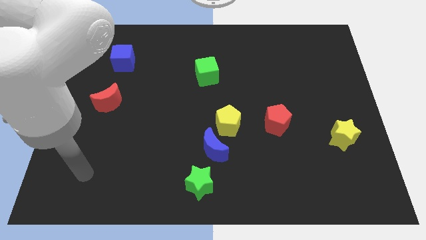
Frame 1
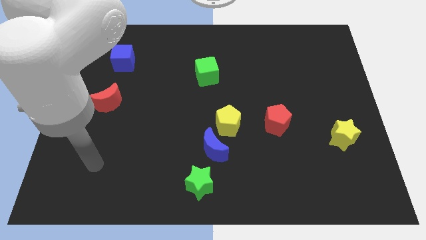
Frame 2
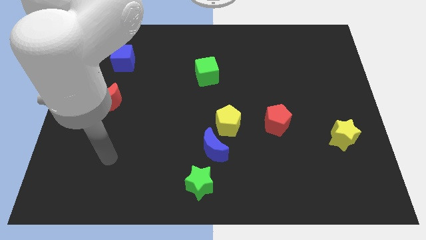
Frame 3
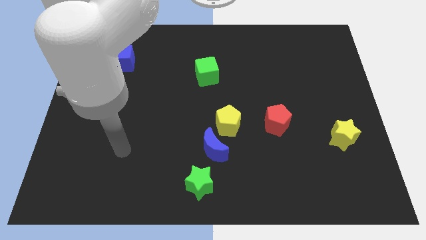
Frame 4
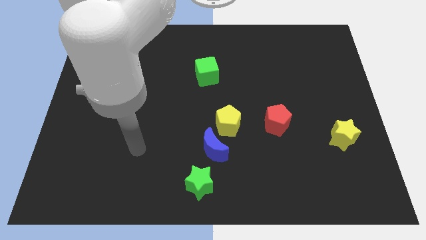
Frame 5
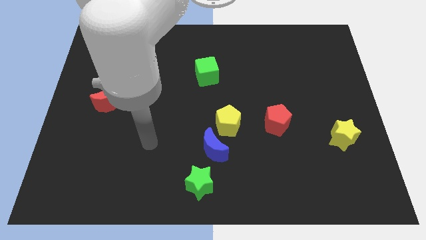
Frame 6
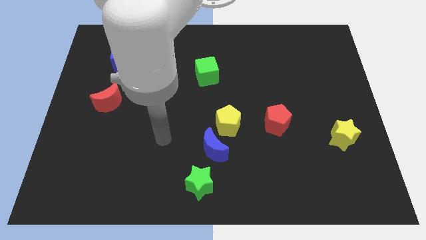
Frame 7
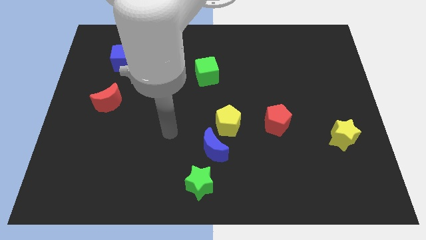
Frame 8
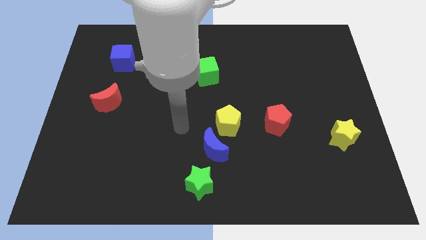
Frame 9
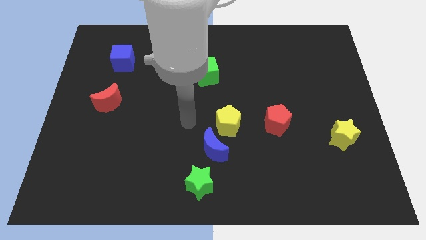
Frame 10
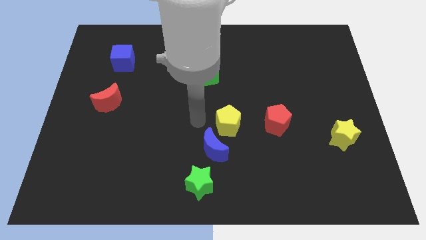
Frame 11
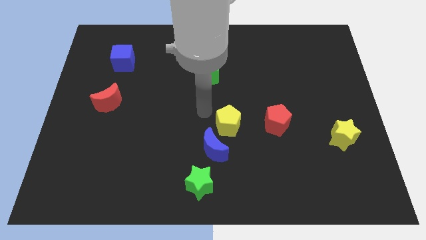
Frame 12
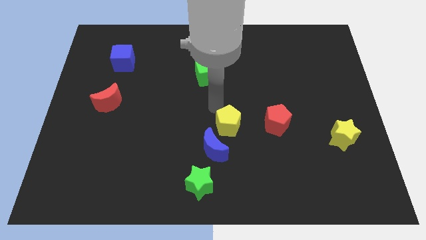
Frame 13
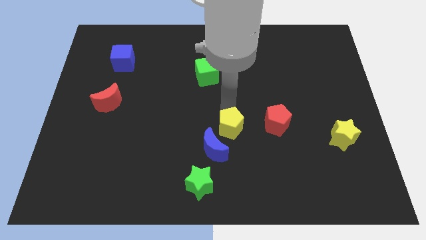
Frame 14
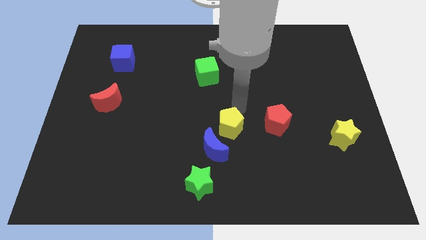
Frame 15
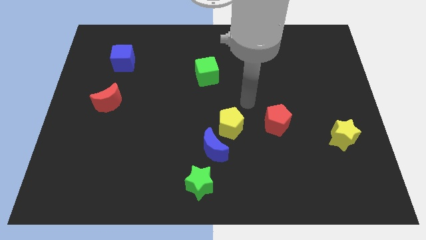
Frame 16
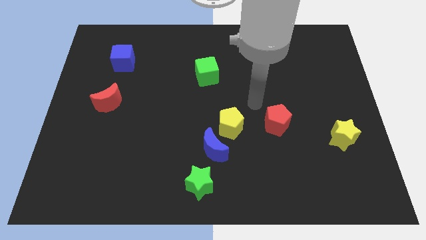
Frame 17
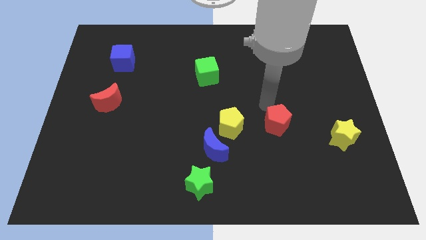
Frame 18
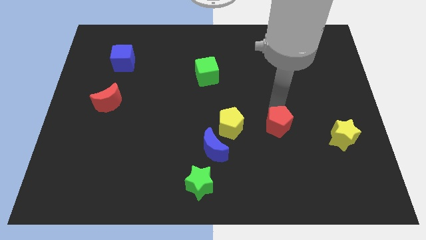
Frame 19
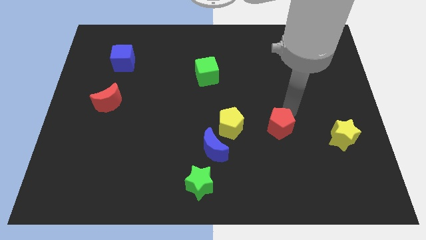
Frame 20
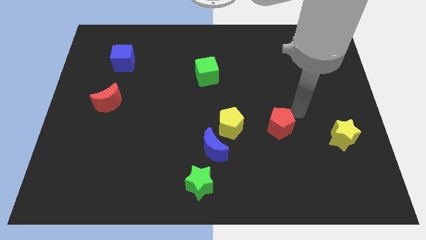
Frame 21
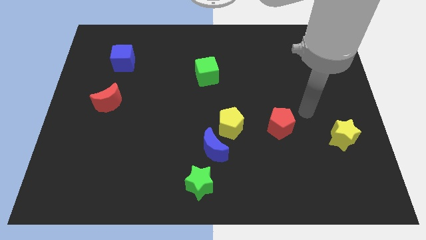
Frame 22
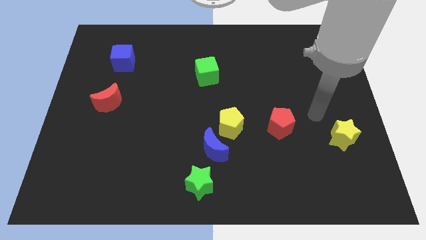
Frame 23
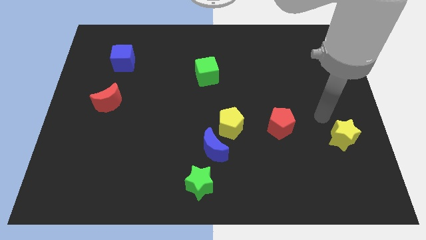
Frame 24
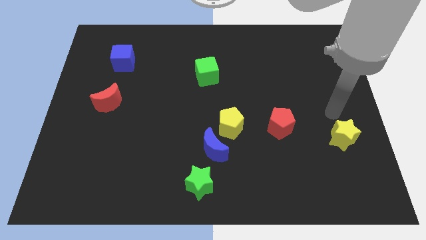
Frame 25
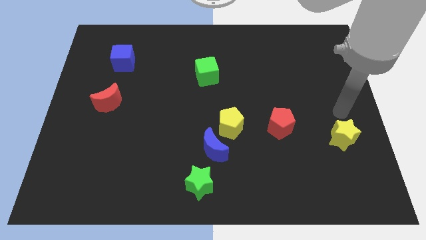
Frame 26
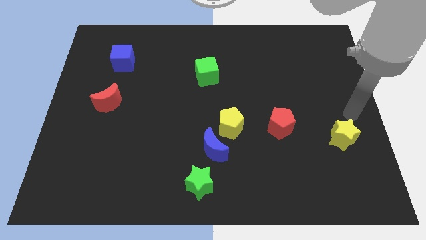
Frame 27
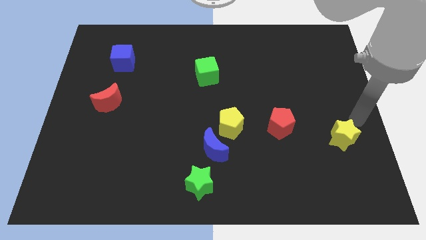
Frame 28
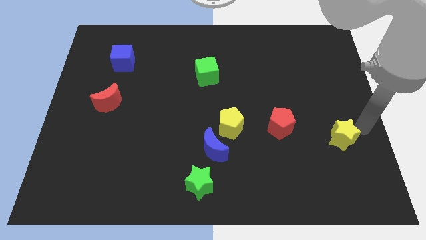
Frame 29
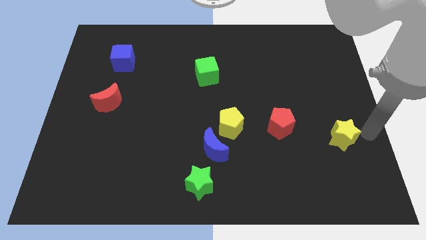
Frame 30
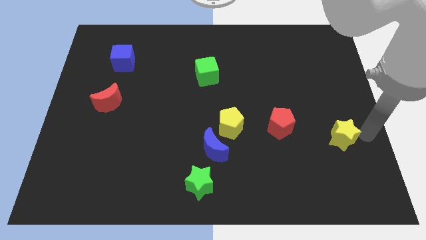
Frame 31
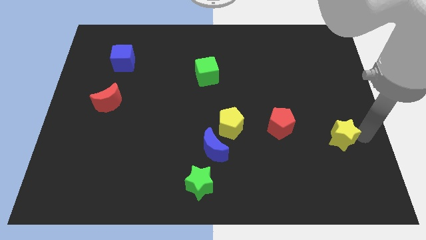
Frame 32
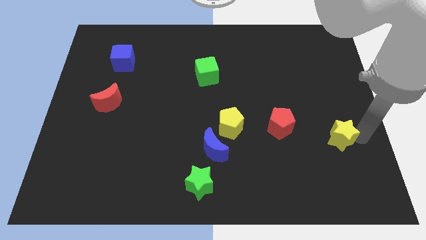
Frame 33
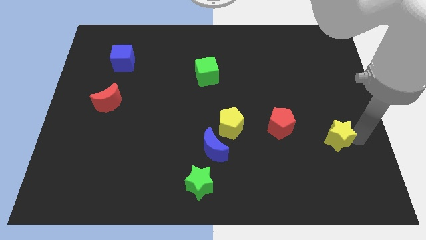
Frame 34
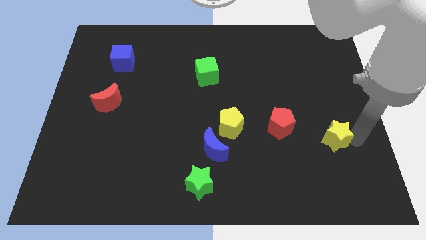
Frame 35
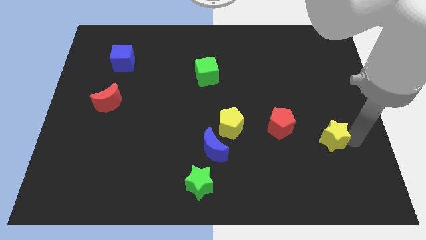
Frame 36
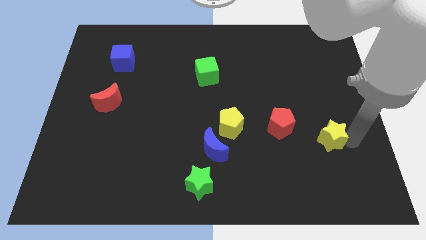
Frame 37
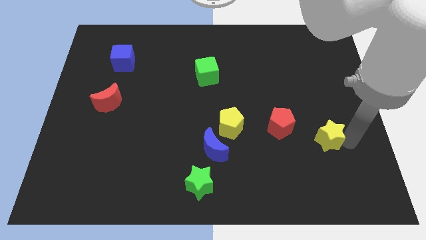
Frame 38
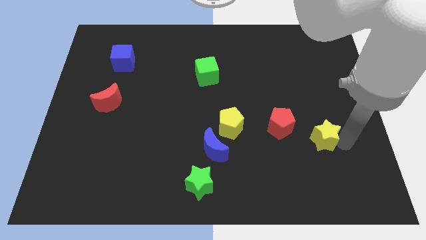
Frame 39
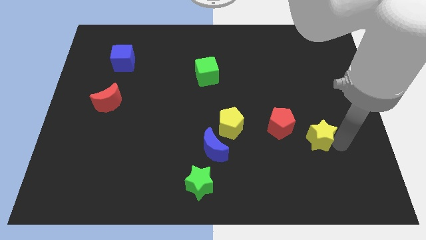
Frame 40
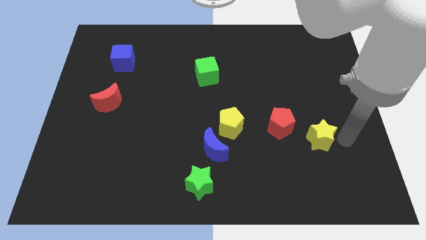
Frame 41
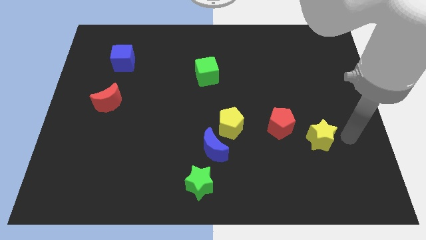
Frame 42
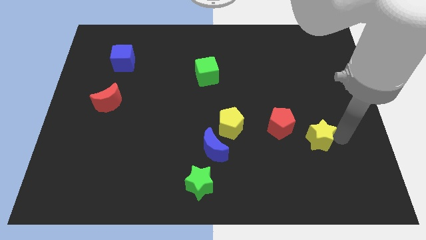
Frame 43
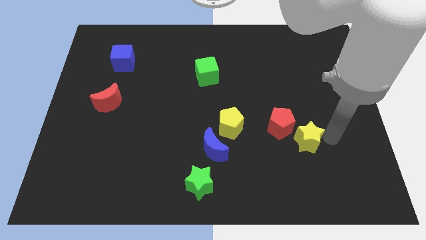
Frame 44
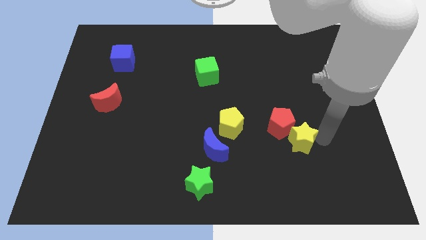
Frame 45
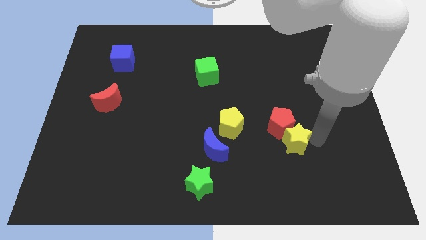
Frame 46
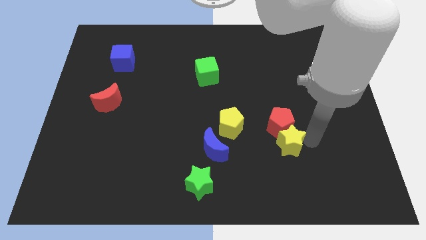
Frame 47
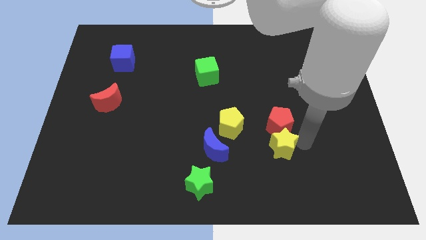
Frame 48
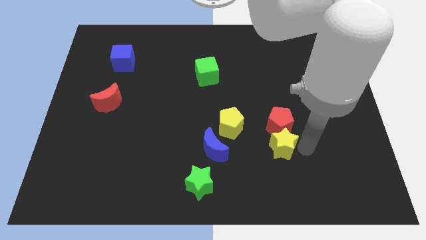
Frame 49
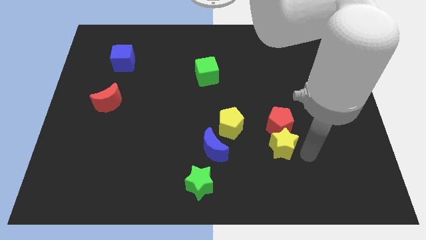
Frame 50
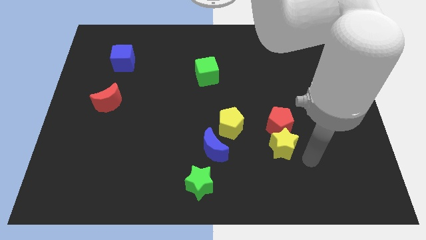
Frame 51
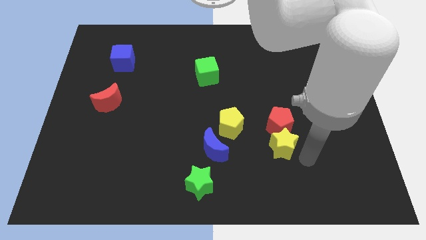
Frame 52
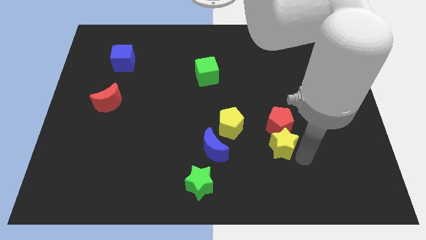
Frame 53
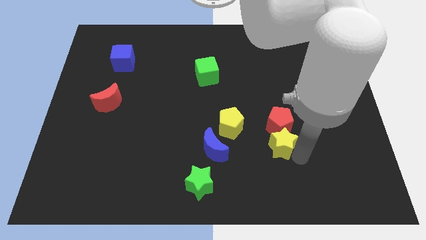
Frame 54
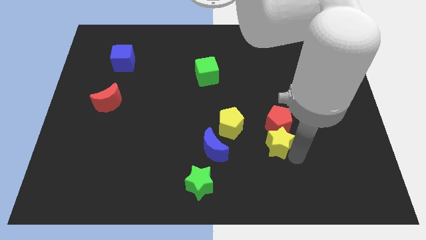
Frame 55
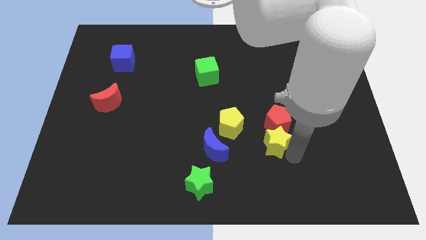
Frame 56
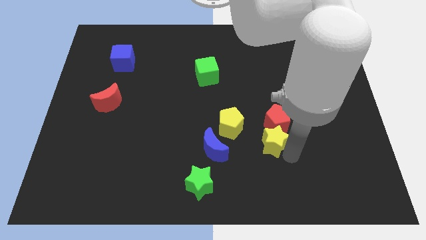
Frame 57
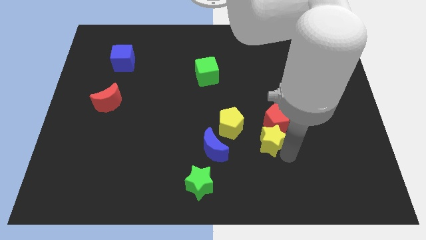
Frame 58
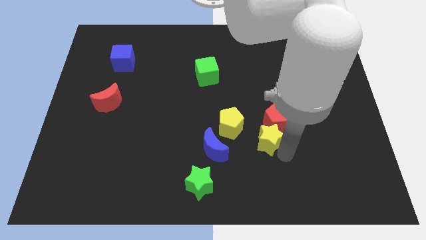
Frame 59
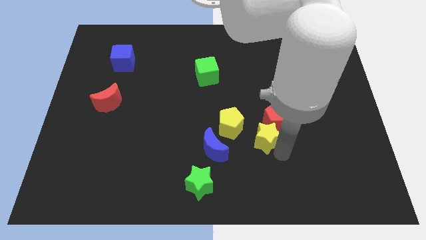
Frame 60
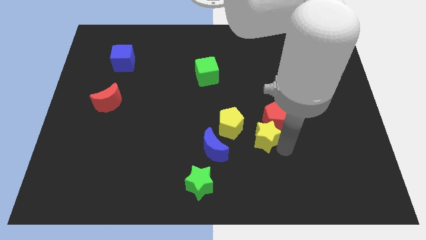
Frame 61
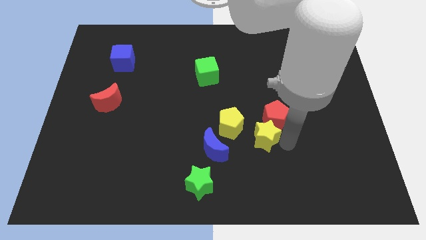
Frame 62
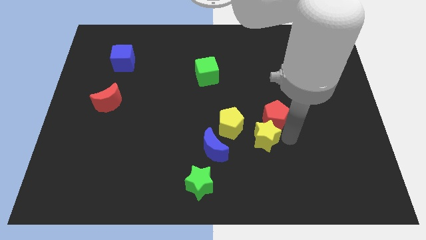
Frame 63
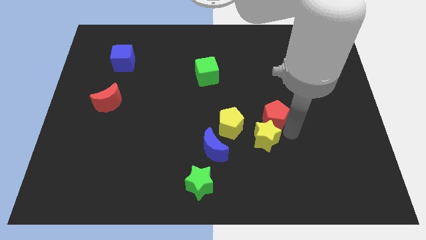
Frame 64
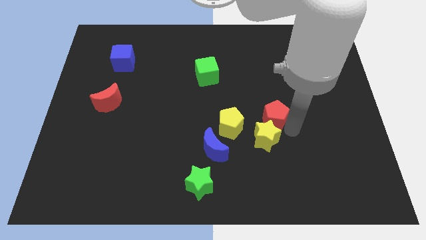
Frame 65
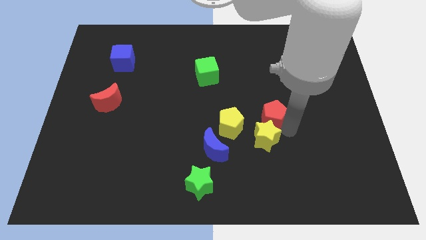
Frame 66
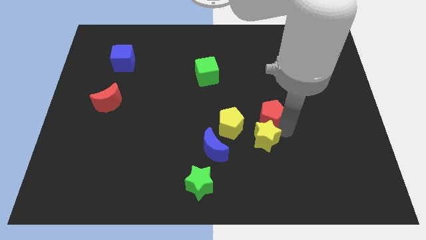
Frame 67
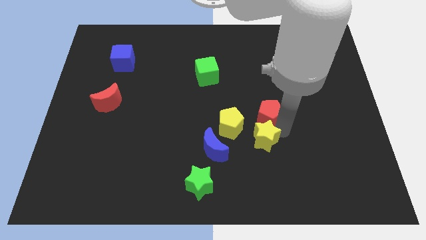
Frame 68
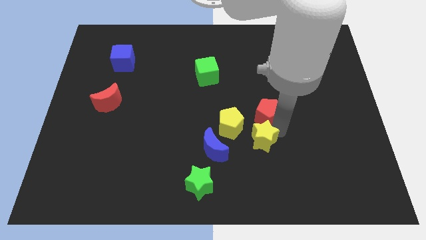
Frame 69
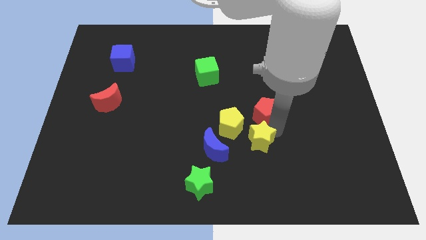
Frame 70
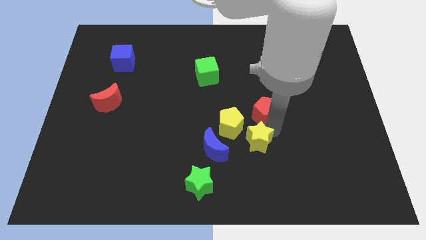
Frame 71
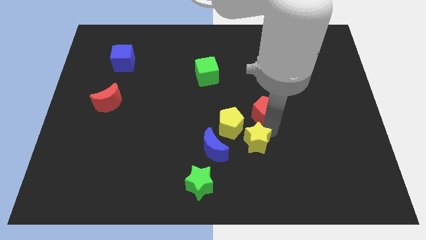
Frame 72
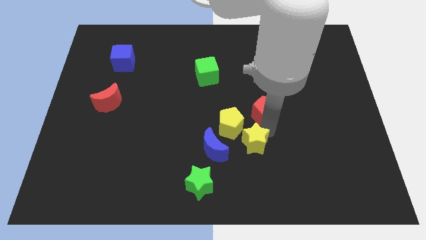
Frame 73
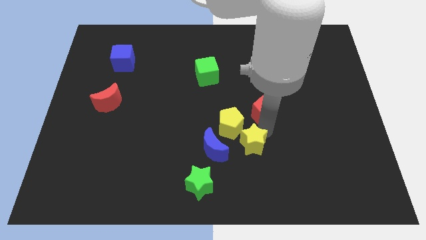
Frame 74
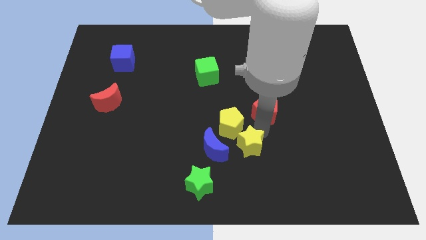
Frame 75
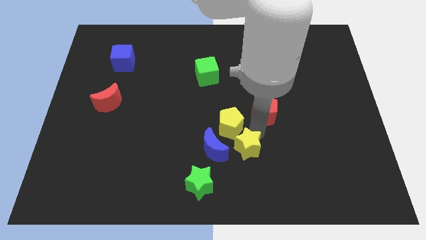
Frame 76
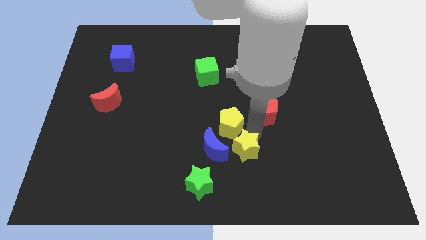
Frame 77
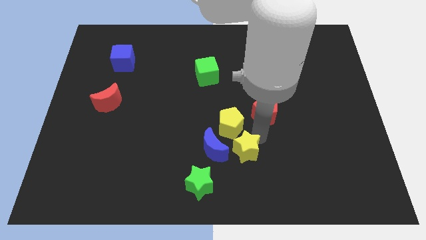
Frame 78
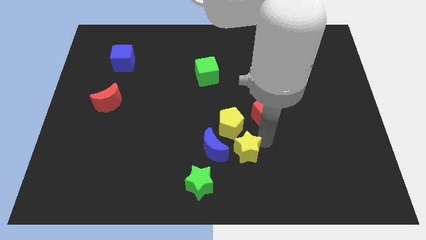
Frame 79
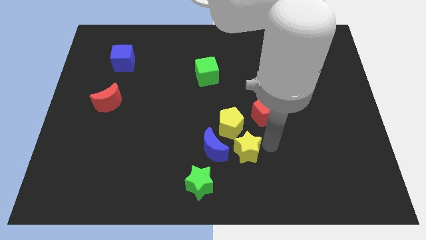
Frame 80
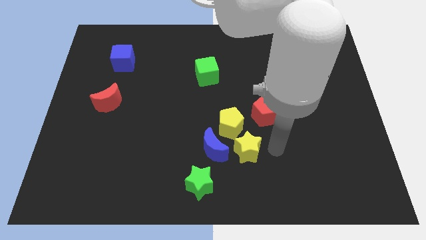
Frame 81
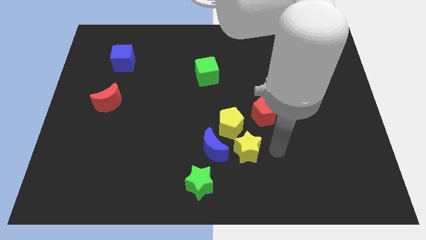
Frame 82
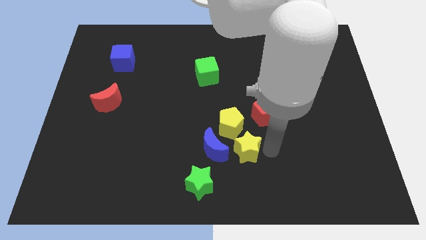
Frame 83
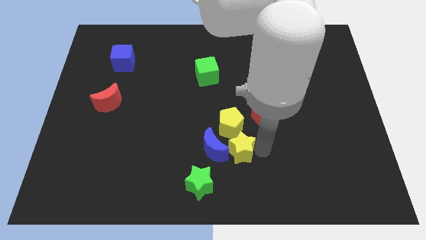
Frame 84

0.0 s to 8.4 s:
push the yellow star next to the blue moon
